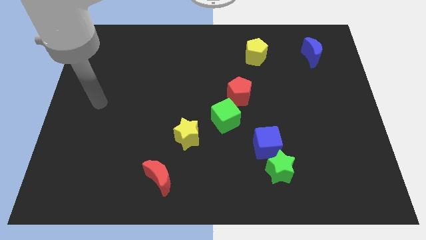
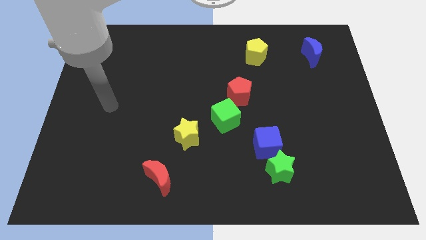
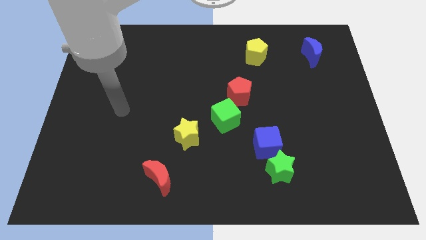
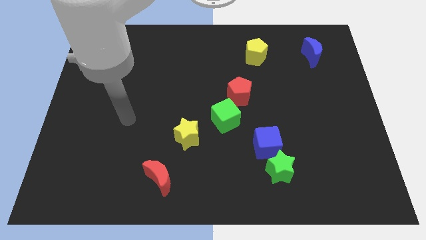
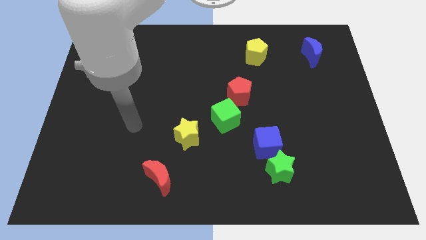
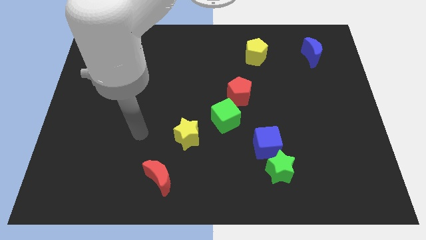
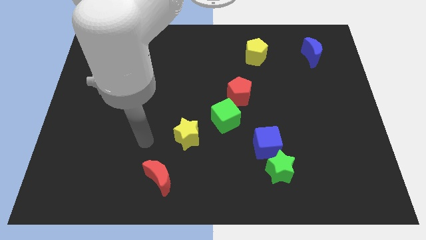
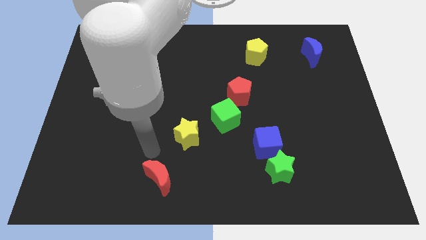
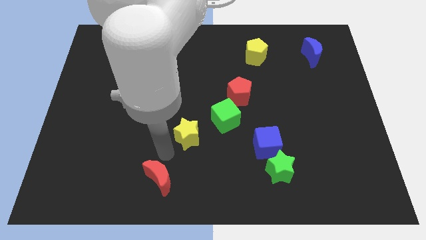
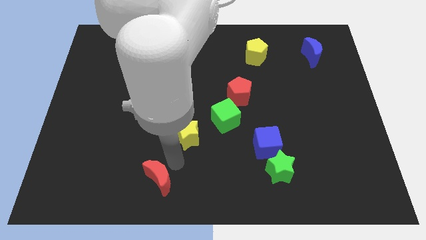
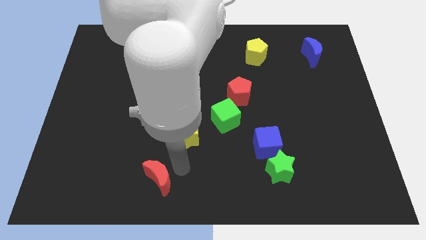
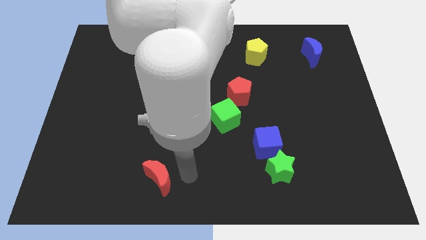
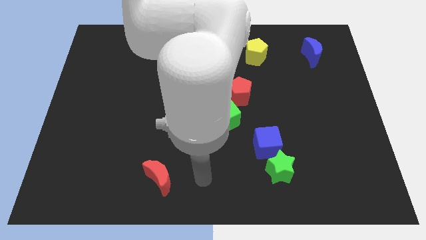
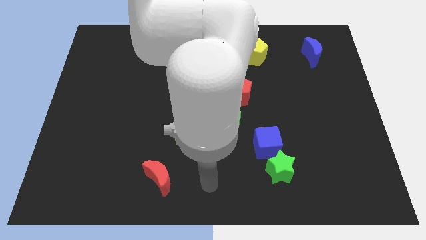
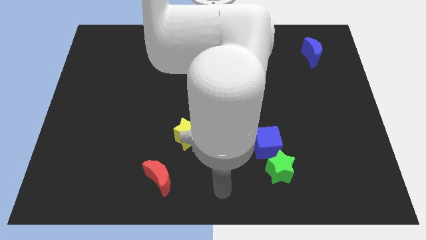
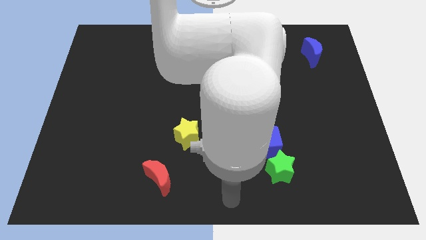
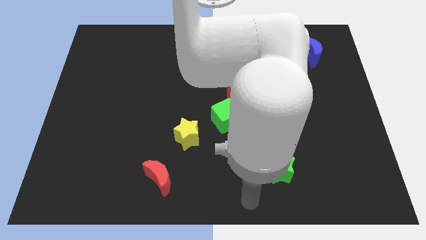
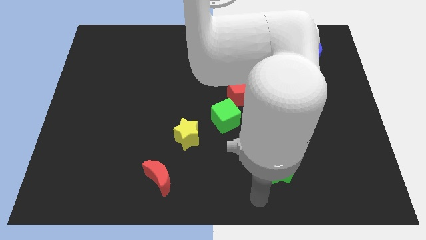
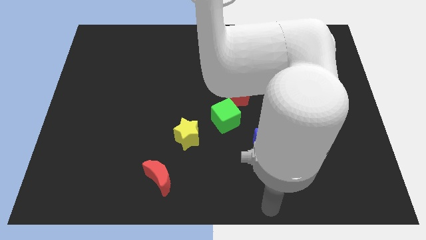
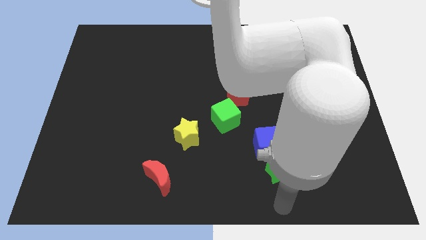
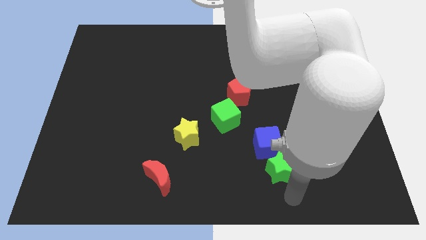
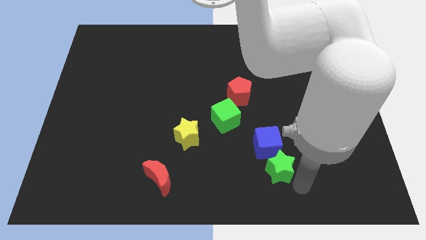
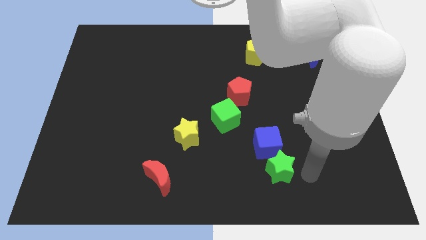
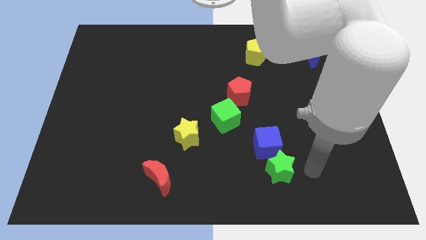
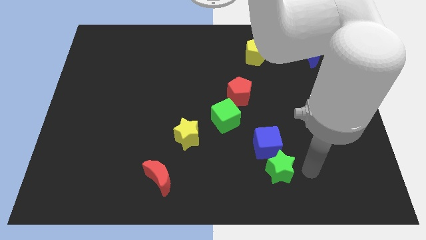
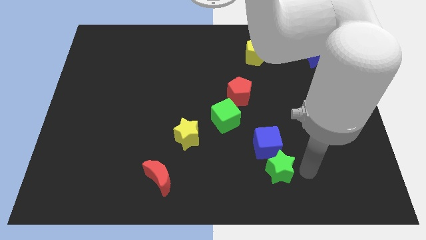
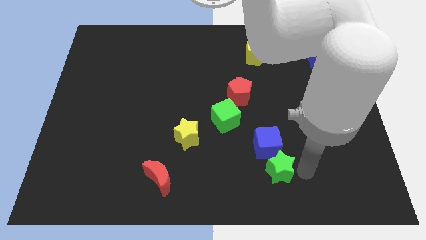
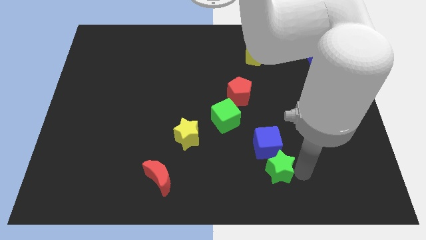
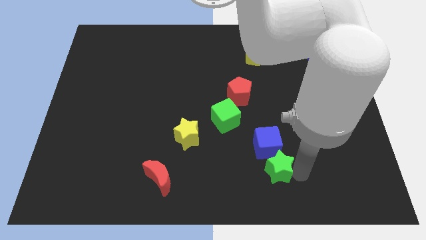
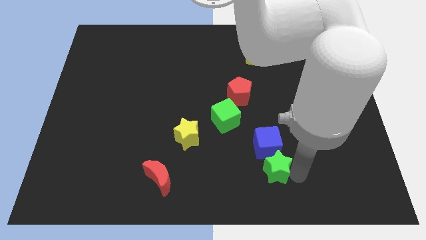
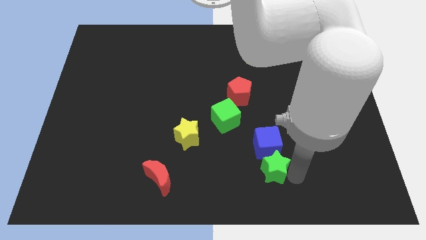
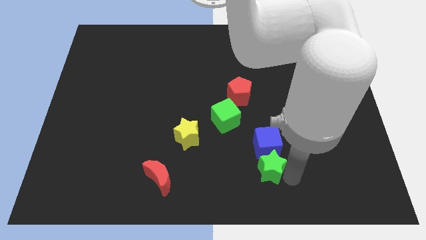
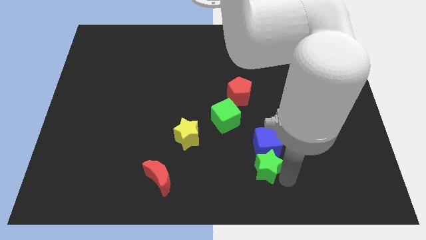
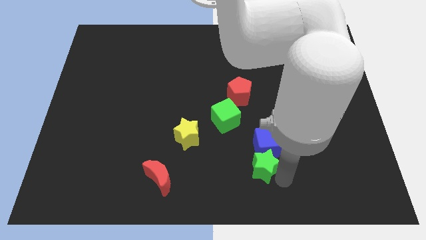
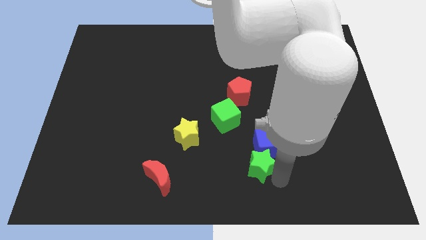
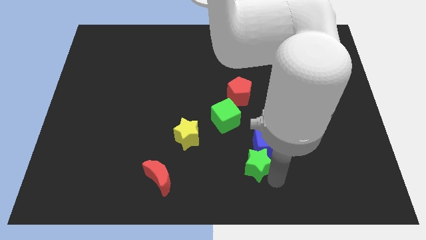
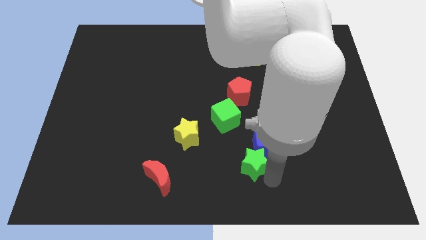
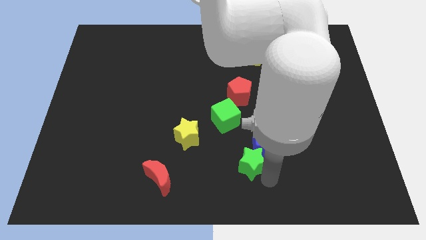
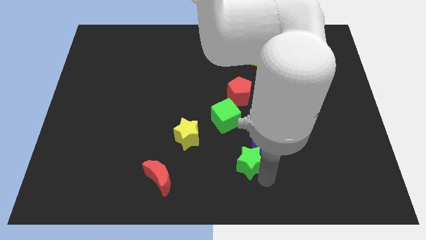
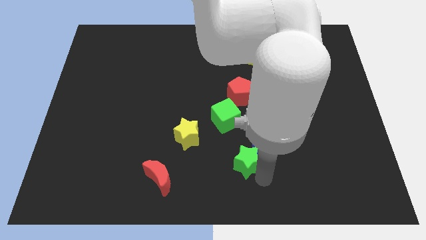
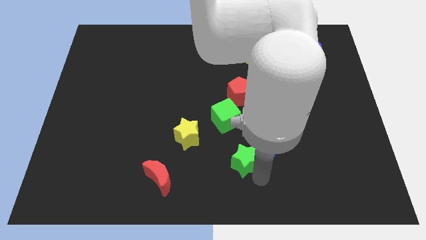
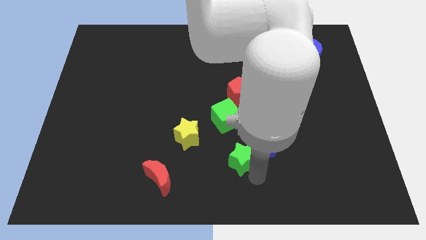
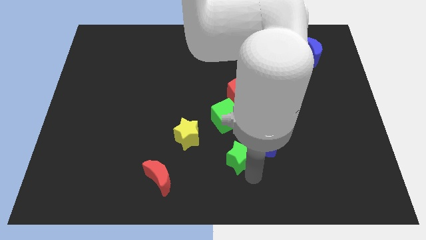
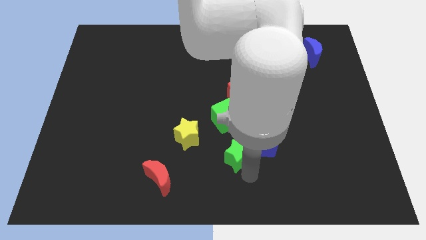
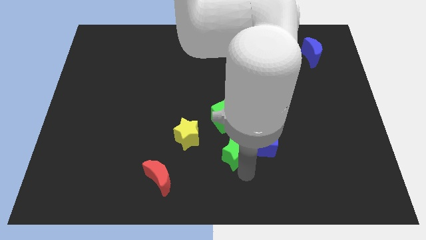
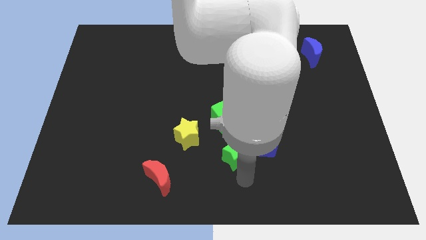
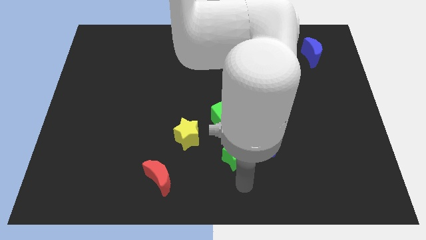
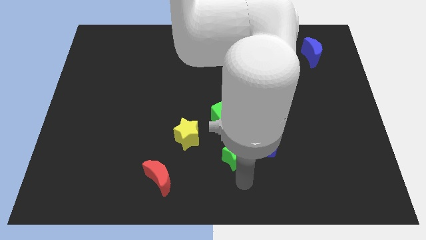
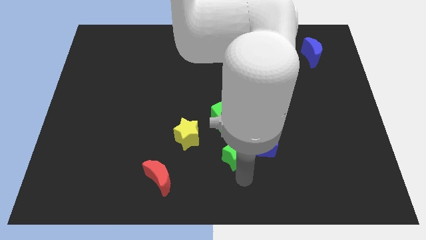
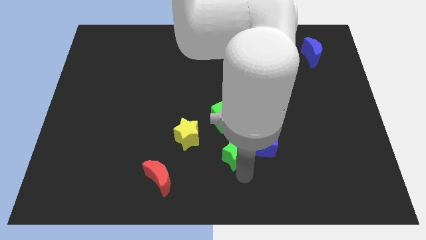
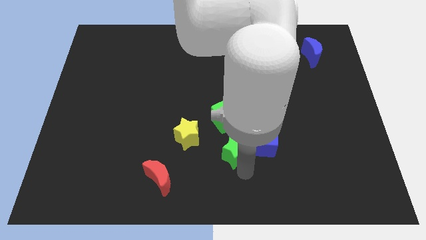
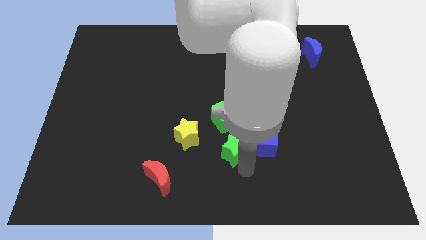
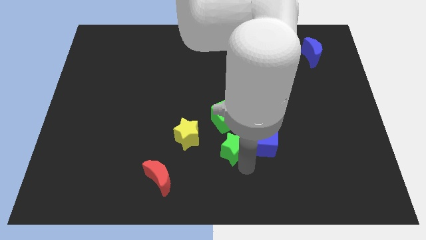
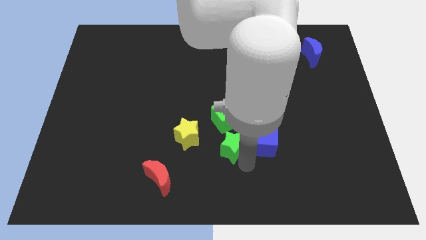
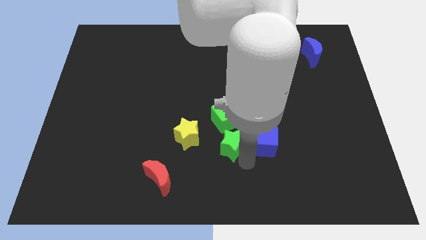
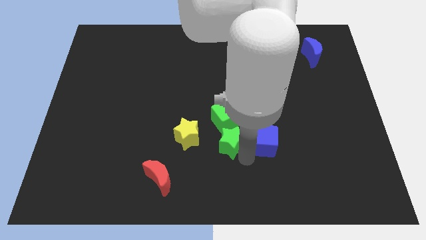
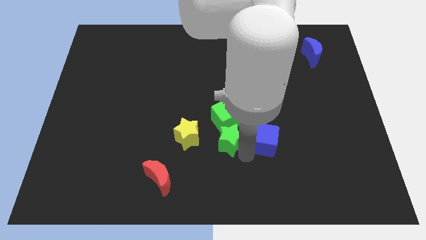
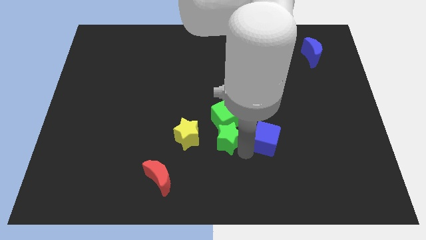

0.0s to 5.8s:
put the green star towards the green cube

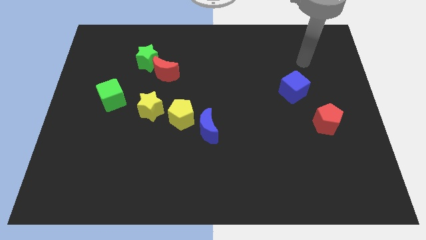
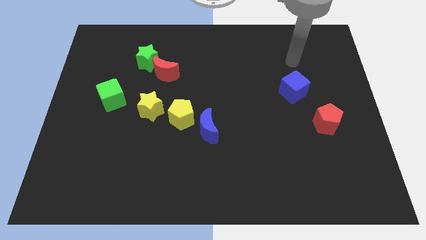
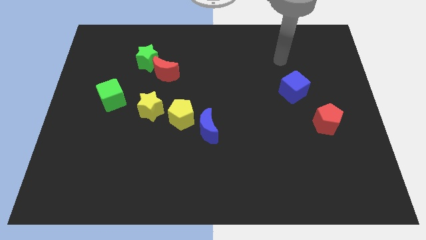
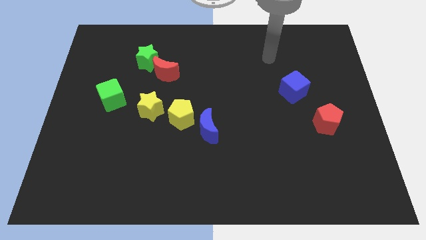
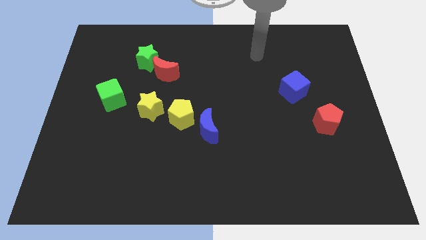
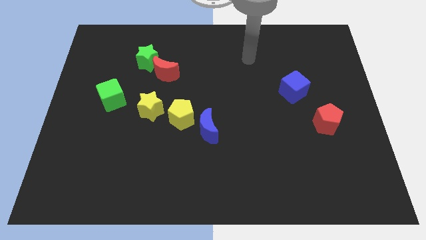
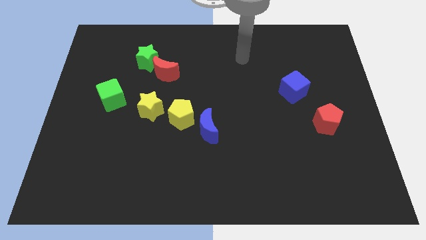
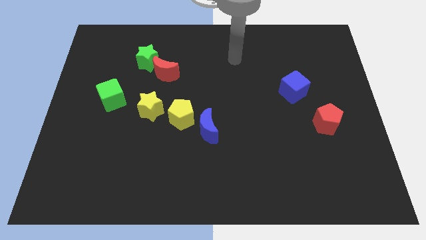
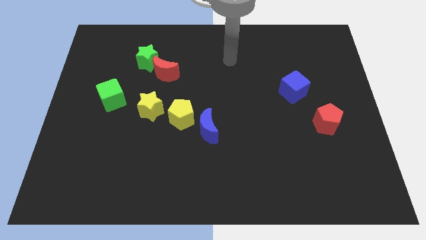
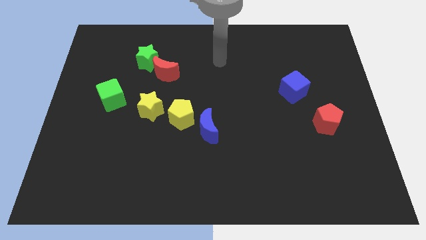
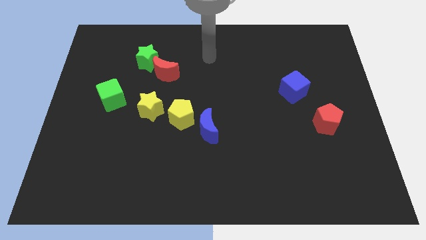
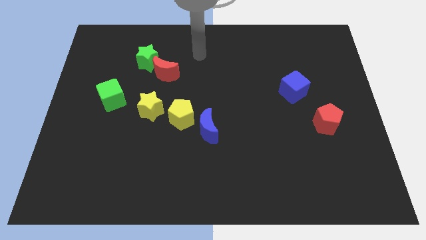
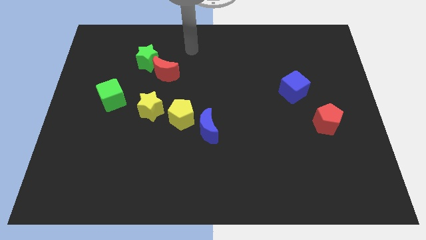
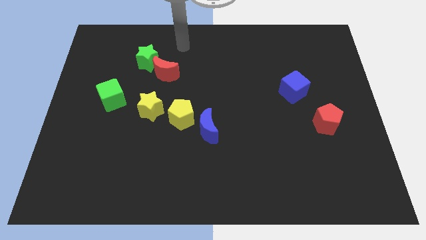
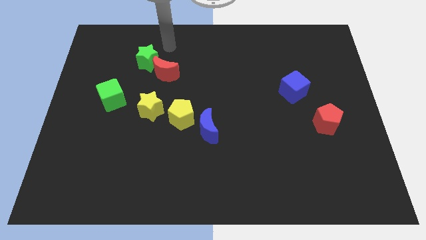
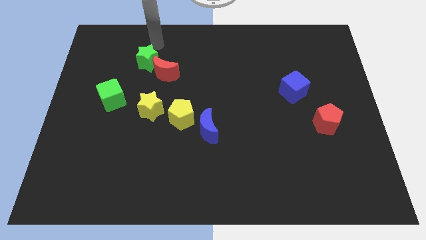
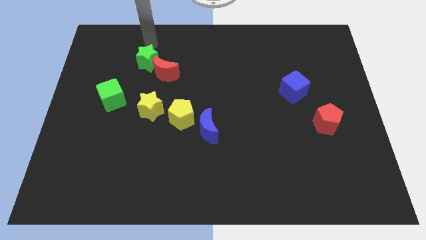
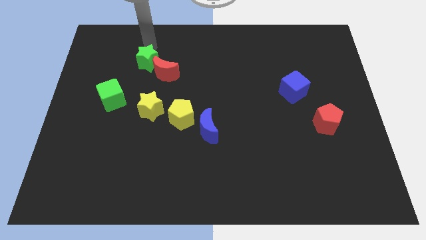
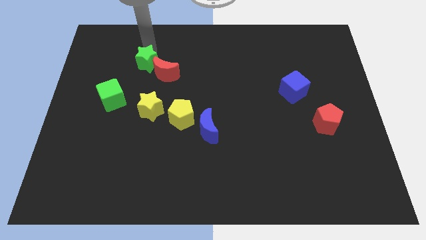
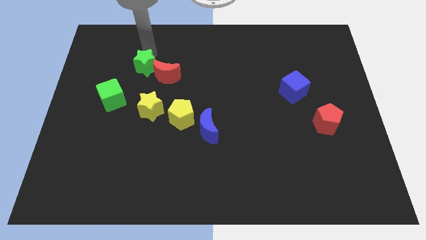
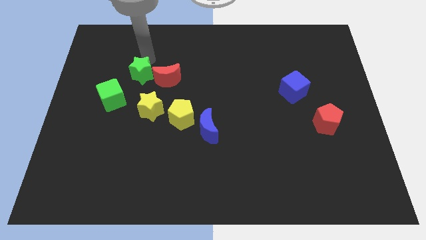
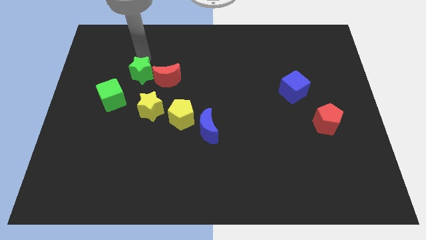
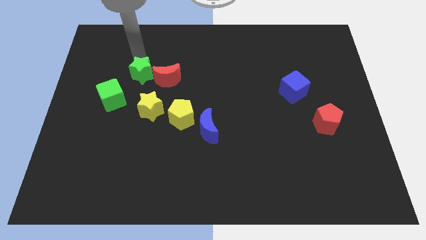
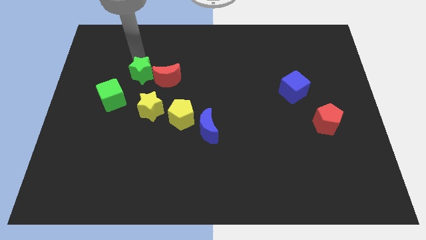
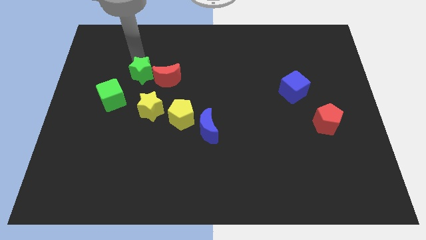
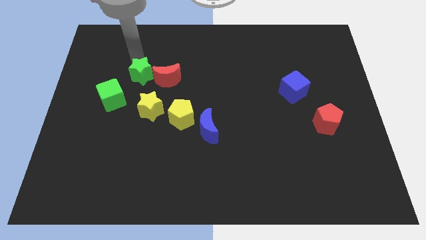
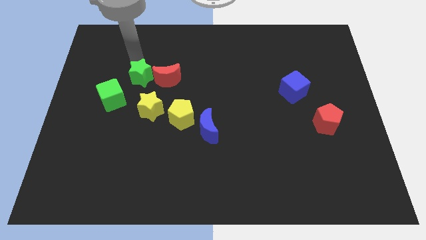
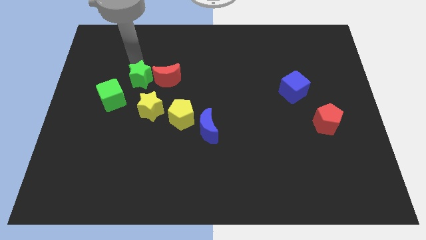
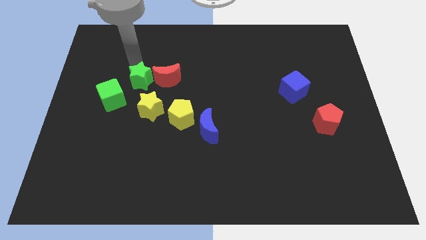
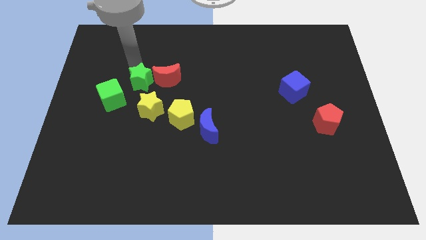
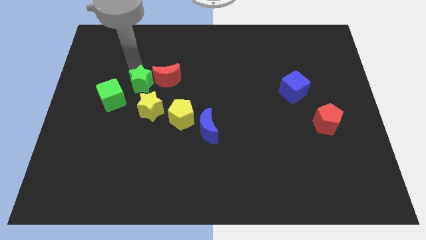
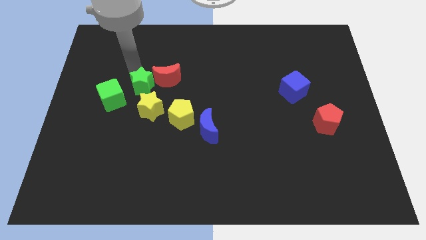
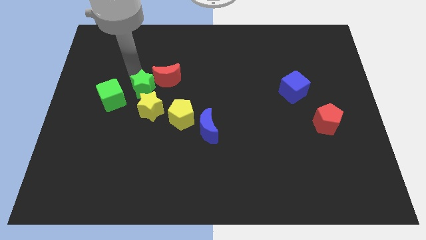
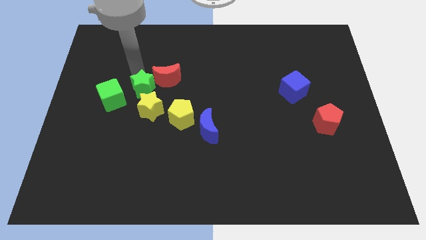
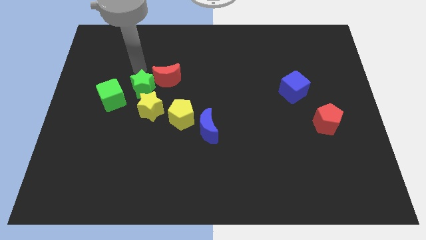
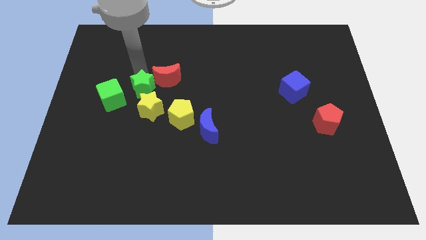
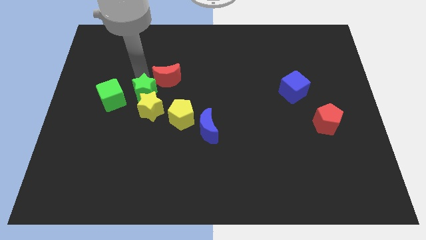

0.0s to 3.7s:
put the green star close to the yellow star
